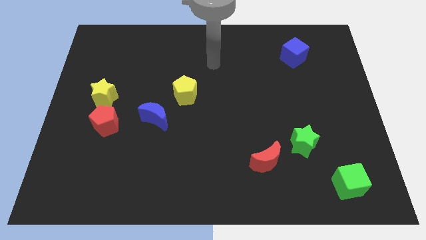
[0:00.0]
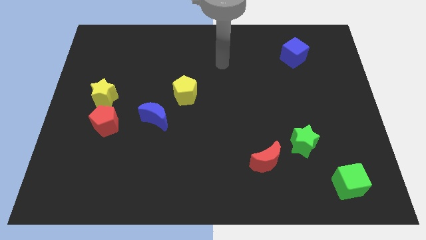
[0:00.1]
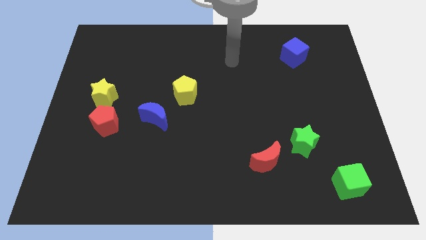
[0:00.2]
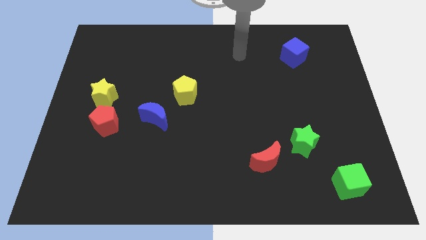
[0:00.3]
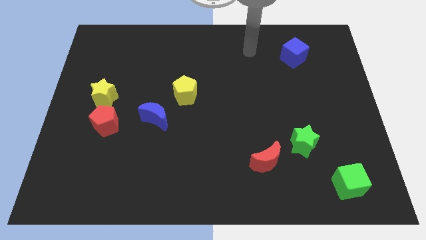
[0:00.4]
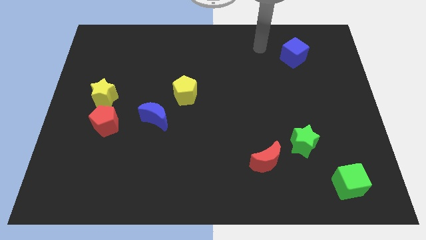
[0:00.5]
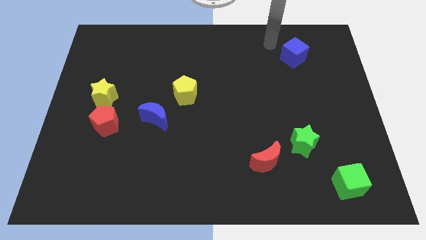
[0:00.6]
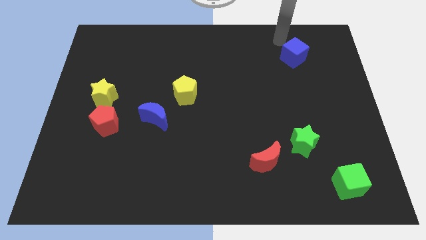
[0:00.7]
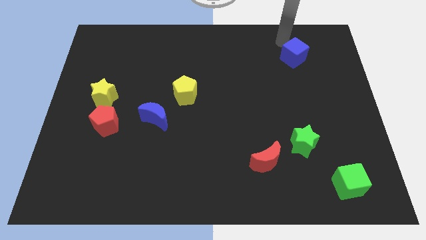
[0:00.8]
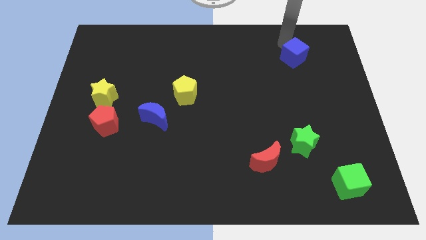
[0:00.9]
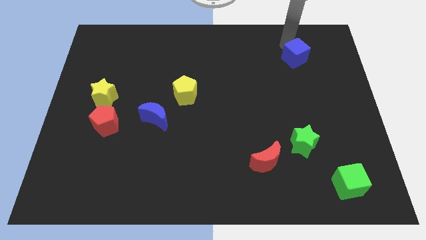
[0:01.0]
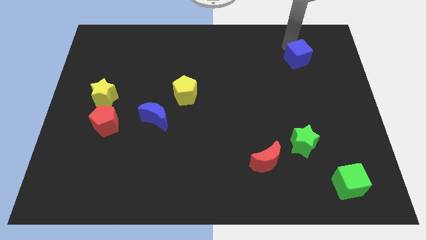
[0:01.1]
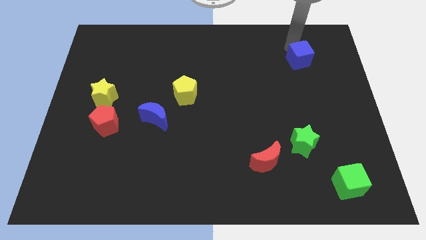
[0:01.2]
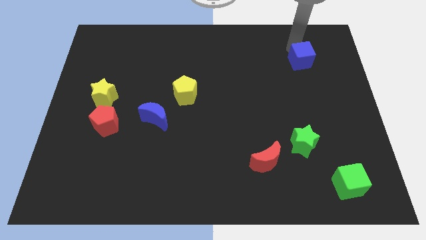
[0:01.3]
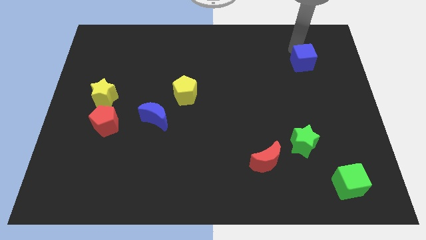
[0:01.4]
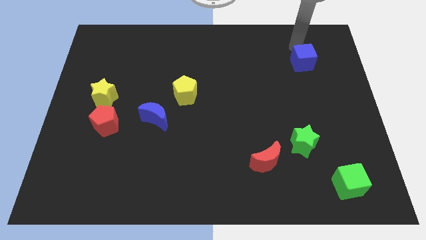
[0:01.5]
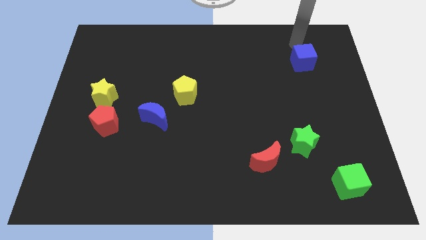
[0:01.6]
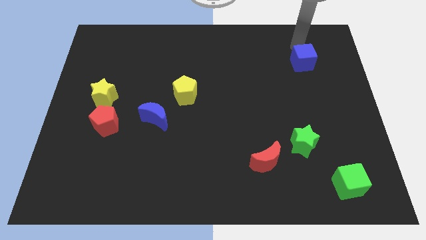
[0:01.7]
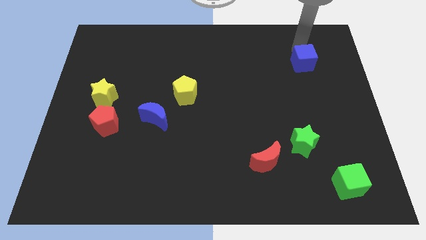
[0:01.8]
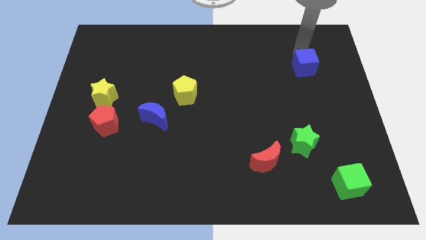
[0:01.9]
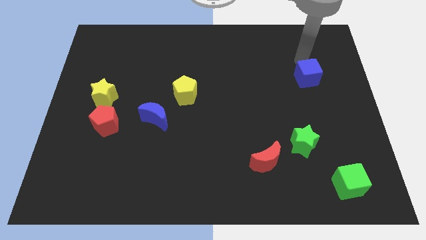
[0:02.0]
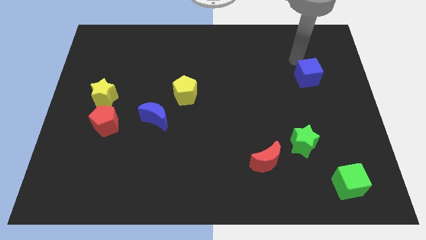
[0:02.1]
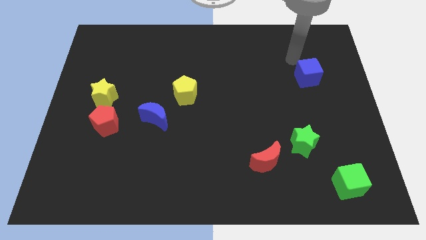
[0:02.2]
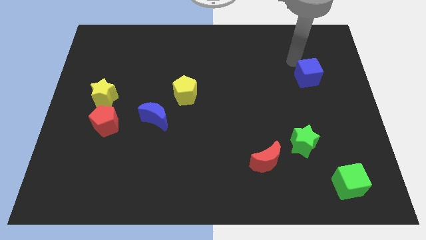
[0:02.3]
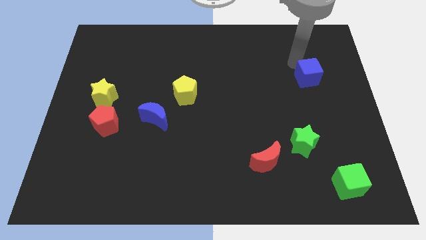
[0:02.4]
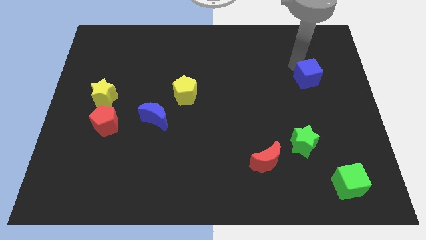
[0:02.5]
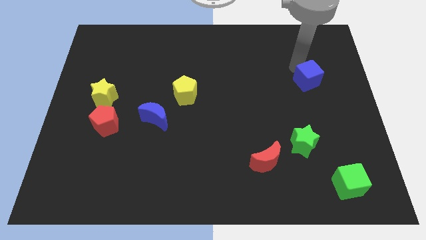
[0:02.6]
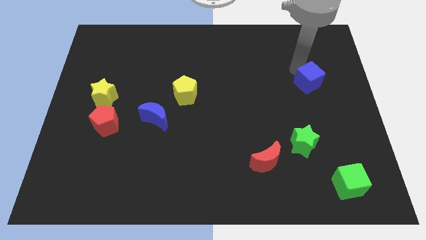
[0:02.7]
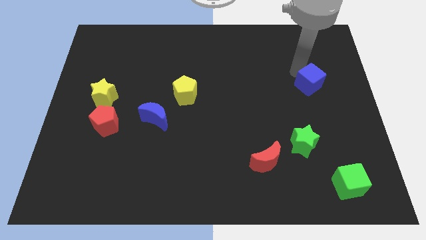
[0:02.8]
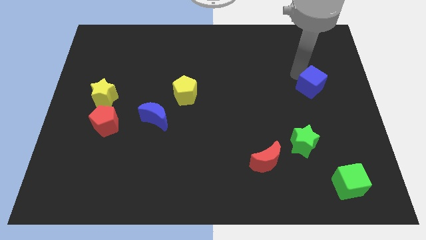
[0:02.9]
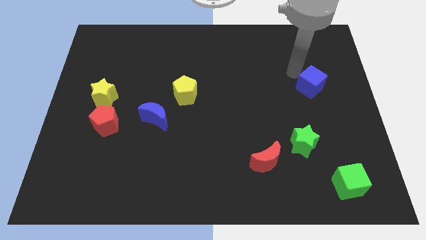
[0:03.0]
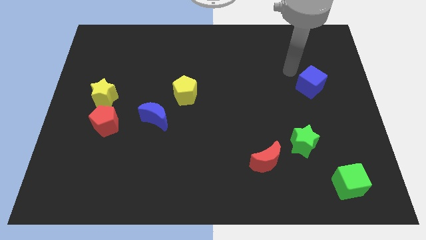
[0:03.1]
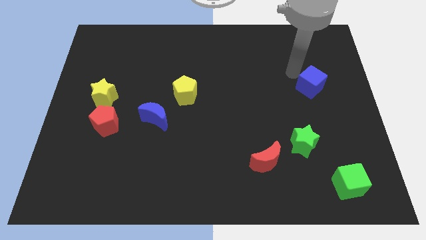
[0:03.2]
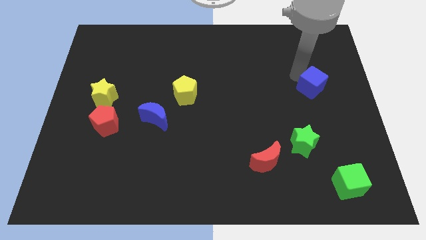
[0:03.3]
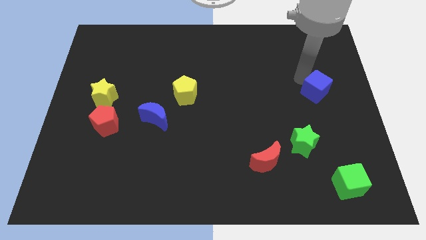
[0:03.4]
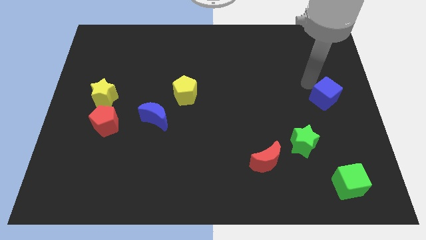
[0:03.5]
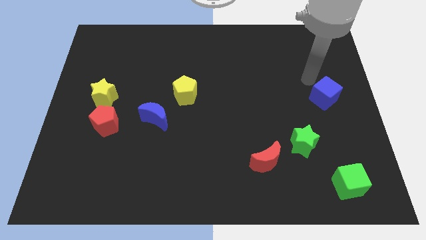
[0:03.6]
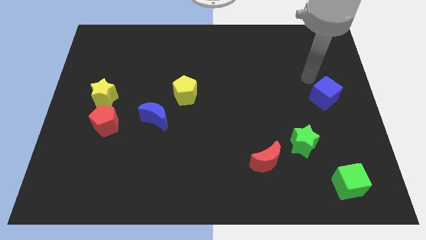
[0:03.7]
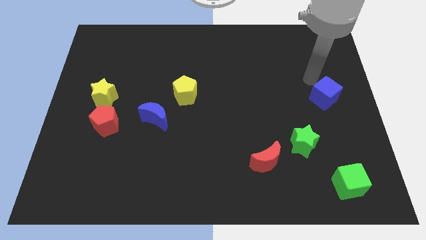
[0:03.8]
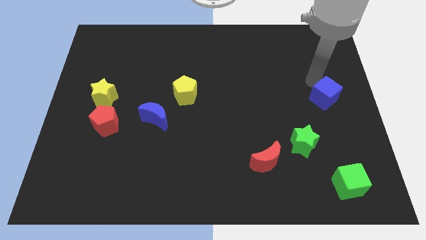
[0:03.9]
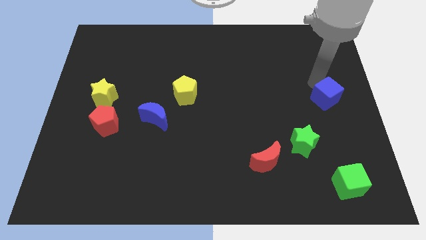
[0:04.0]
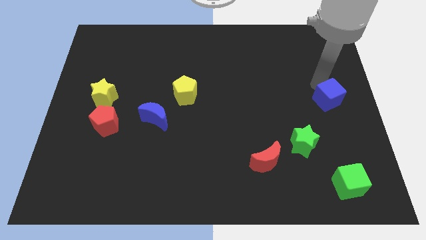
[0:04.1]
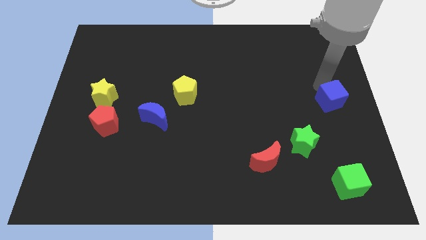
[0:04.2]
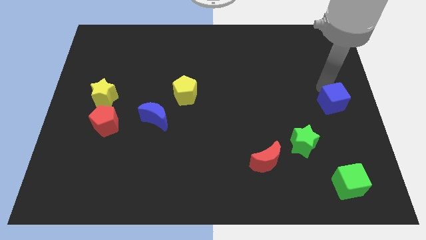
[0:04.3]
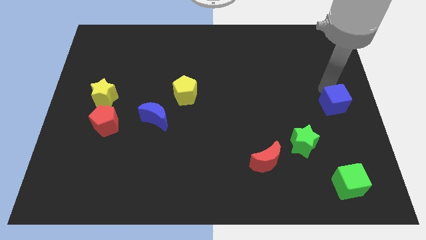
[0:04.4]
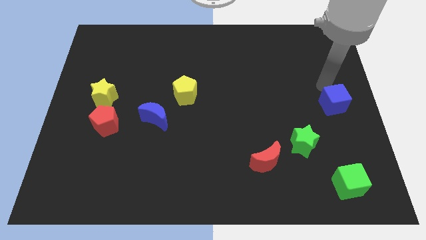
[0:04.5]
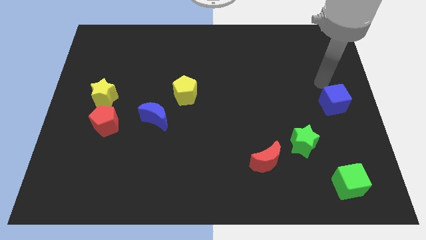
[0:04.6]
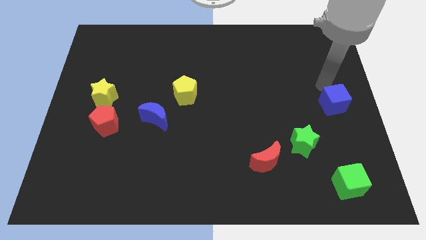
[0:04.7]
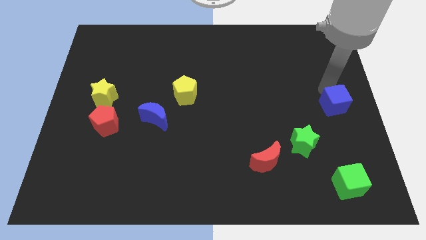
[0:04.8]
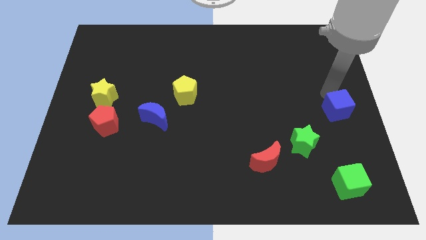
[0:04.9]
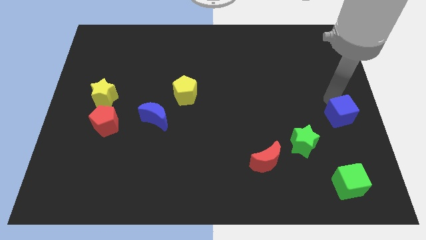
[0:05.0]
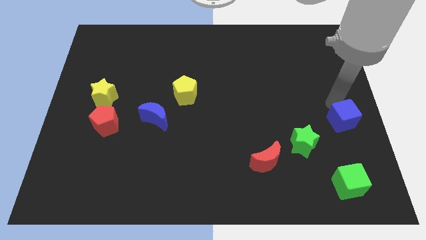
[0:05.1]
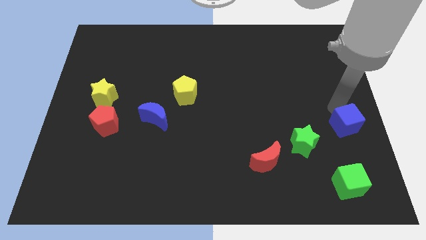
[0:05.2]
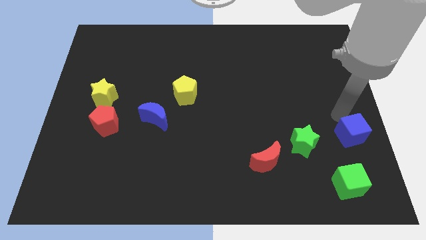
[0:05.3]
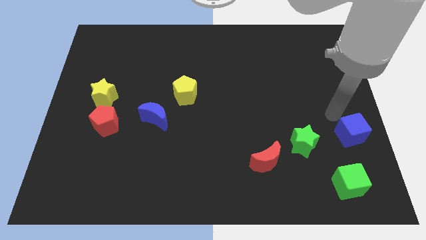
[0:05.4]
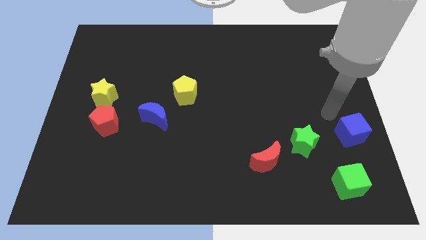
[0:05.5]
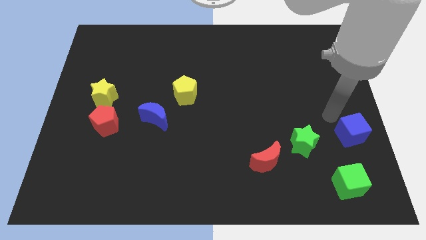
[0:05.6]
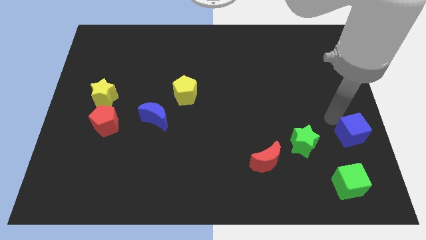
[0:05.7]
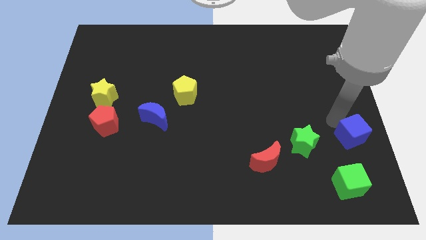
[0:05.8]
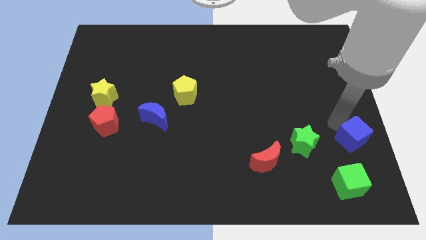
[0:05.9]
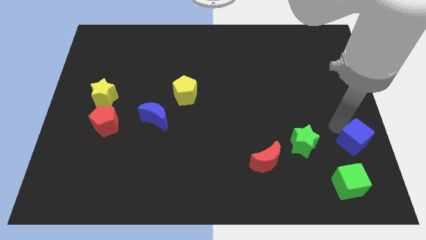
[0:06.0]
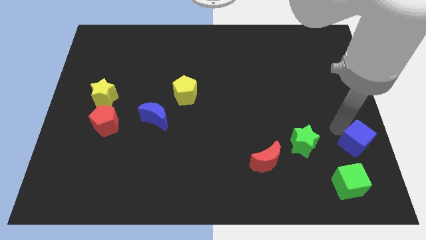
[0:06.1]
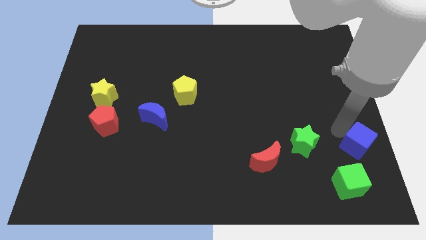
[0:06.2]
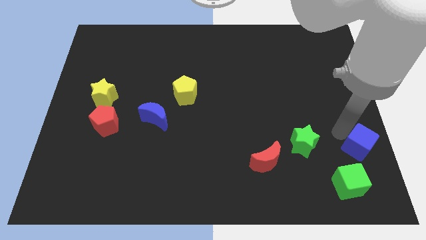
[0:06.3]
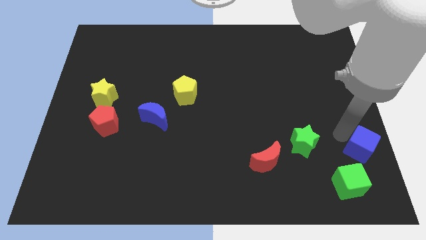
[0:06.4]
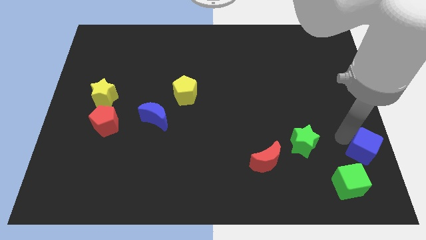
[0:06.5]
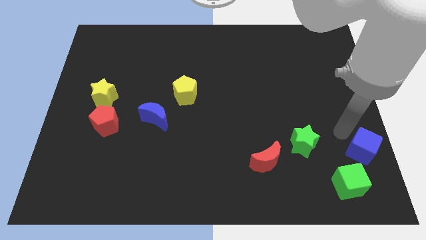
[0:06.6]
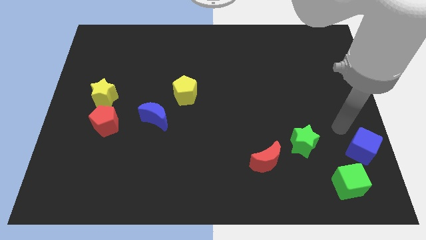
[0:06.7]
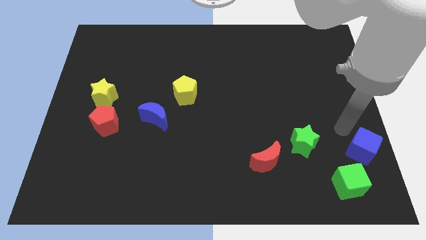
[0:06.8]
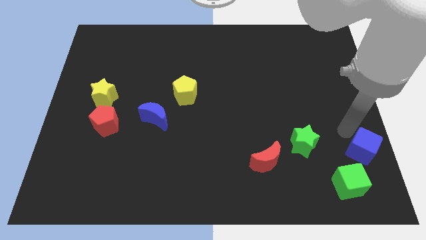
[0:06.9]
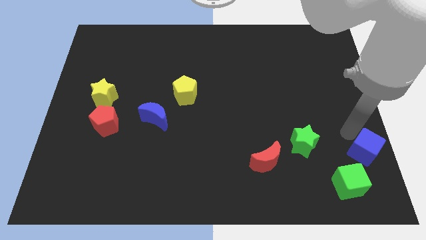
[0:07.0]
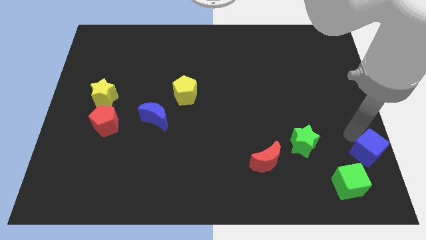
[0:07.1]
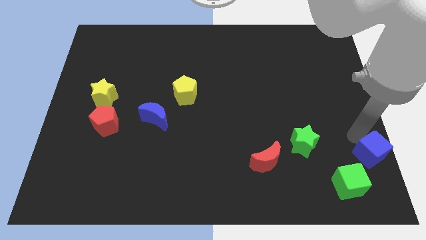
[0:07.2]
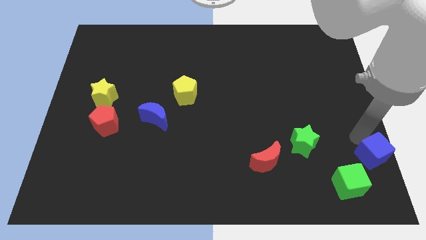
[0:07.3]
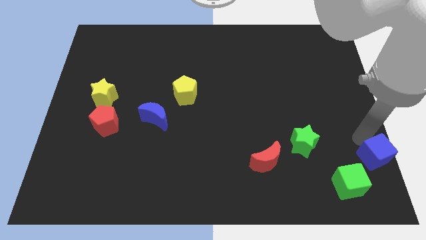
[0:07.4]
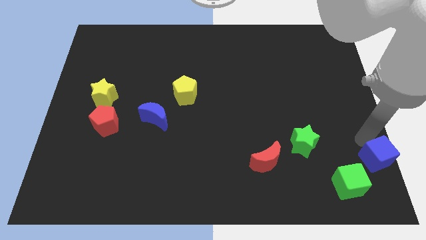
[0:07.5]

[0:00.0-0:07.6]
put the blue cube to the lower right corner
